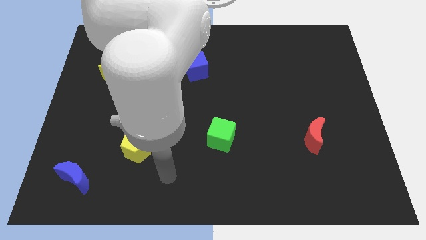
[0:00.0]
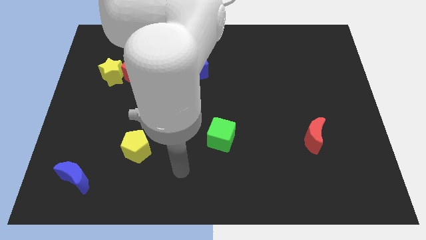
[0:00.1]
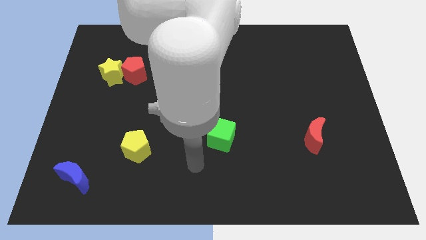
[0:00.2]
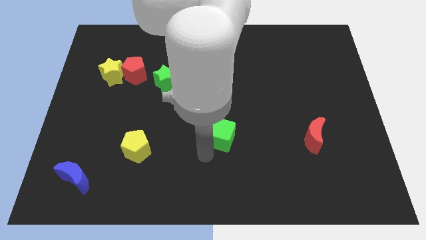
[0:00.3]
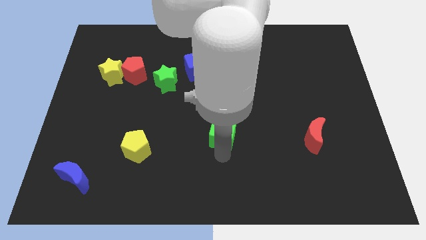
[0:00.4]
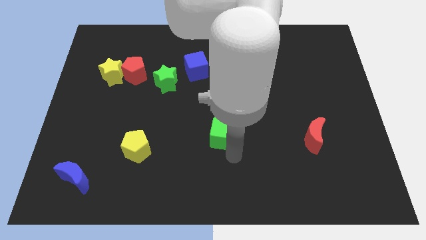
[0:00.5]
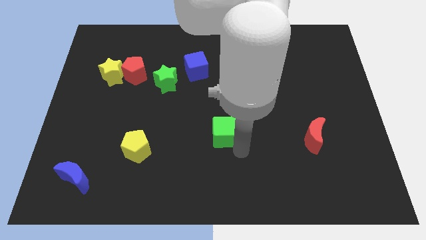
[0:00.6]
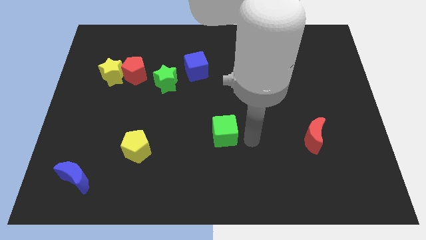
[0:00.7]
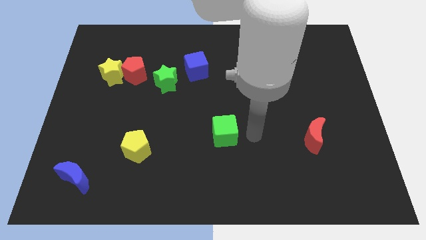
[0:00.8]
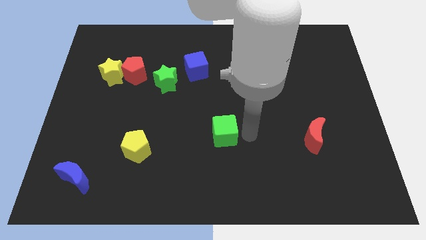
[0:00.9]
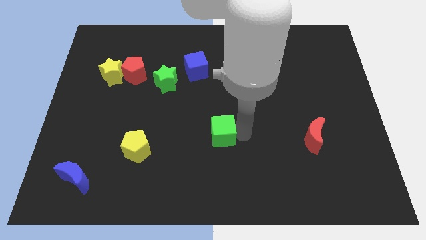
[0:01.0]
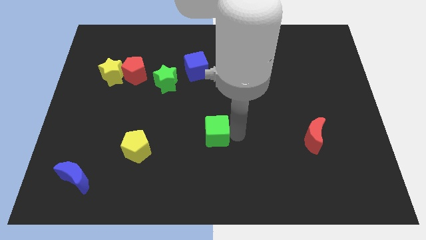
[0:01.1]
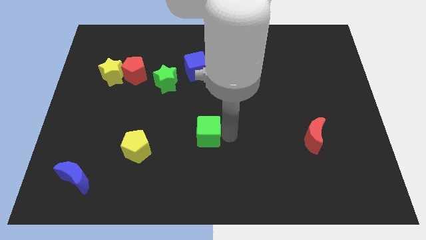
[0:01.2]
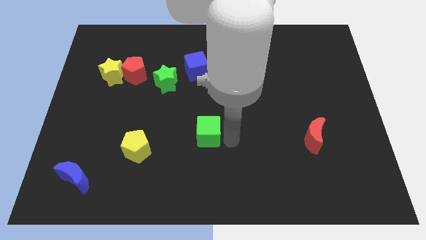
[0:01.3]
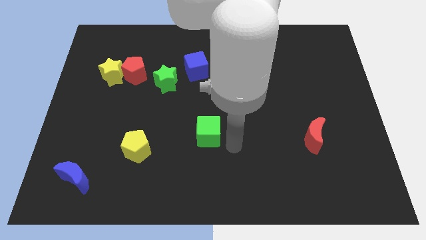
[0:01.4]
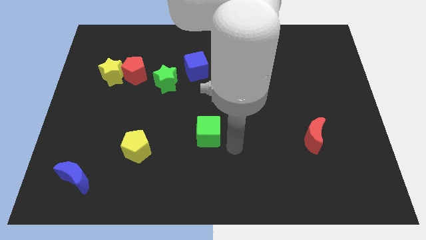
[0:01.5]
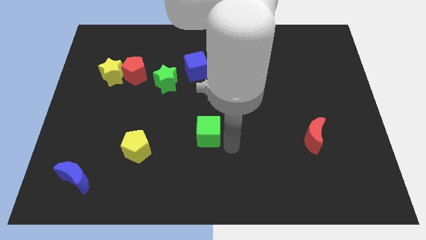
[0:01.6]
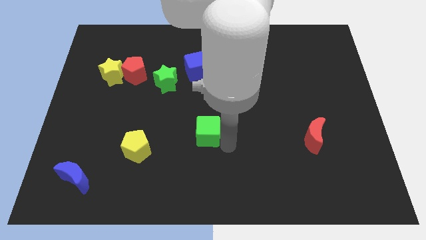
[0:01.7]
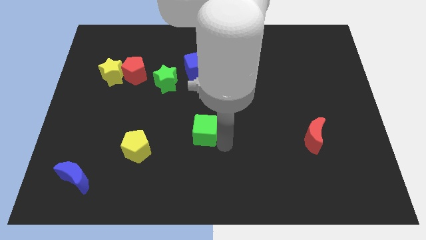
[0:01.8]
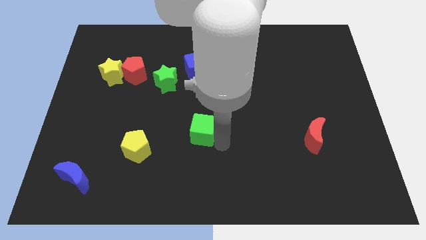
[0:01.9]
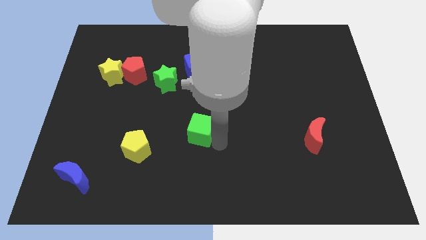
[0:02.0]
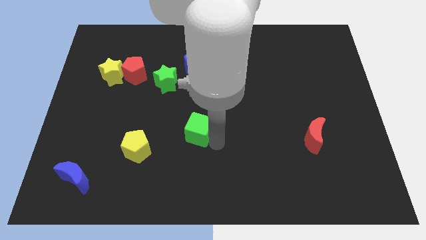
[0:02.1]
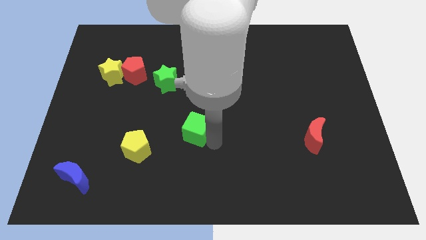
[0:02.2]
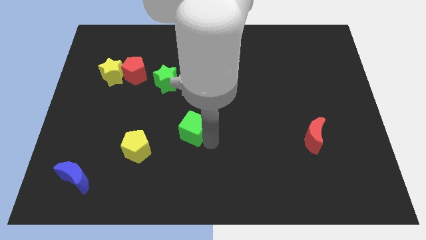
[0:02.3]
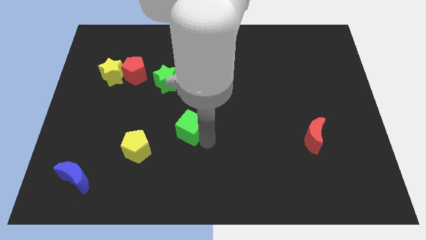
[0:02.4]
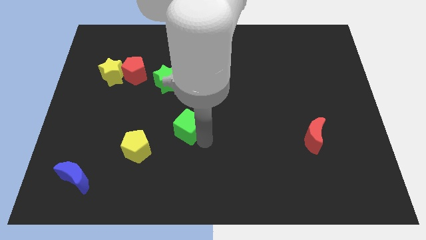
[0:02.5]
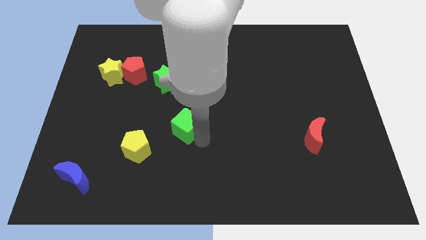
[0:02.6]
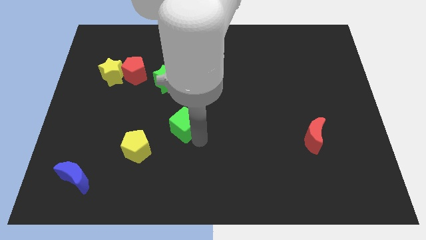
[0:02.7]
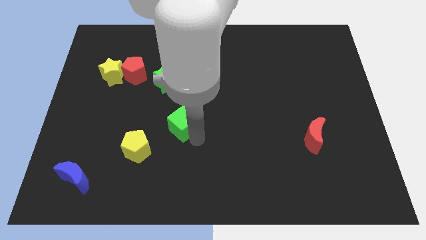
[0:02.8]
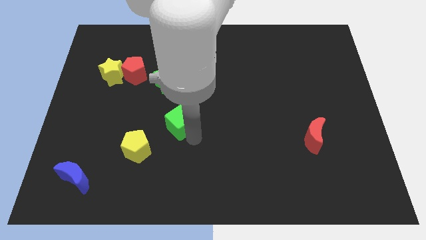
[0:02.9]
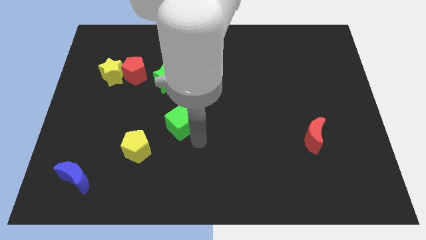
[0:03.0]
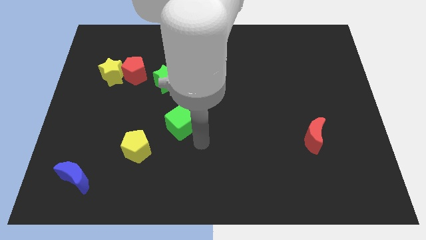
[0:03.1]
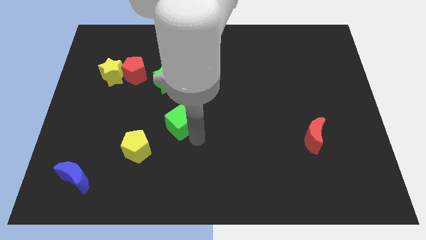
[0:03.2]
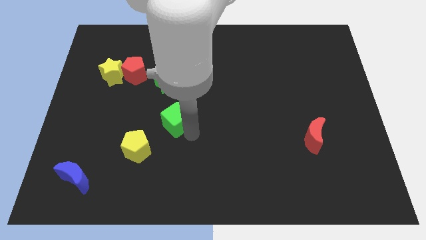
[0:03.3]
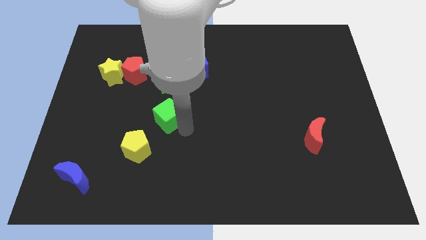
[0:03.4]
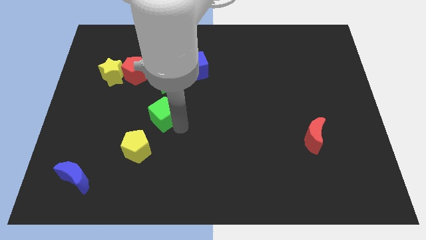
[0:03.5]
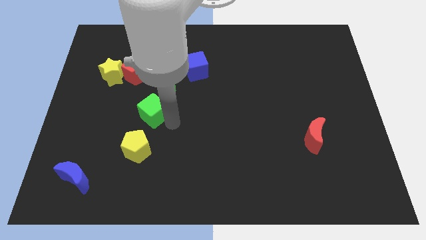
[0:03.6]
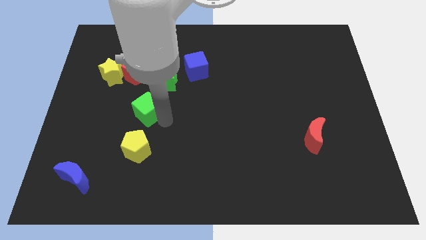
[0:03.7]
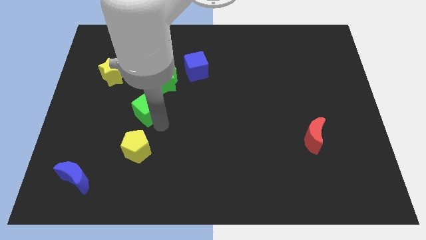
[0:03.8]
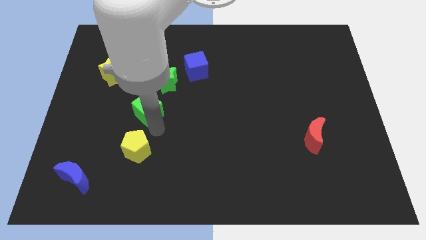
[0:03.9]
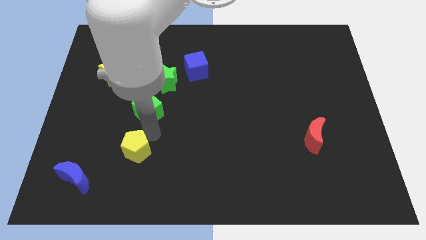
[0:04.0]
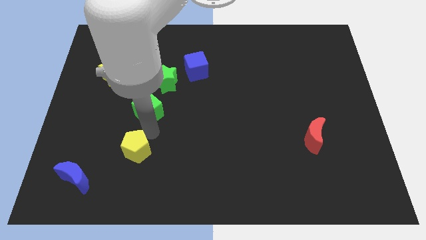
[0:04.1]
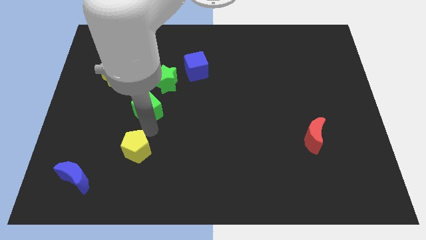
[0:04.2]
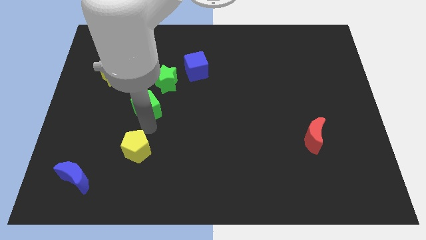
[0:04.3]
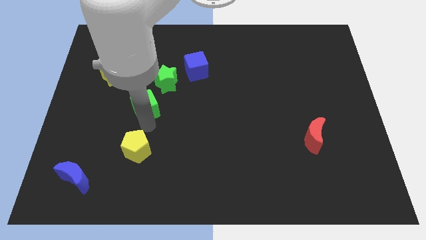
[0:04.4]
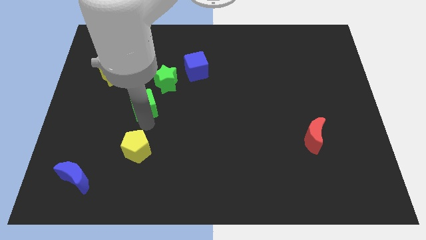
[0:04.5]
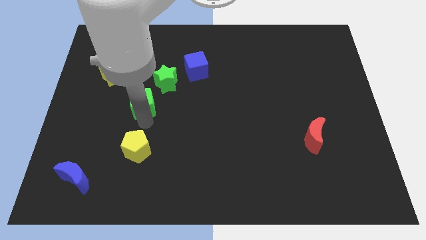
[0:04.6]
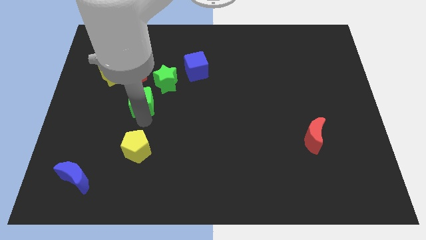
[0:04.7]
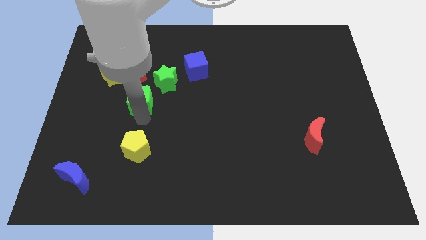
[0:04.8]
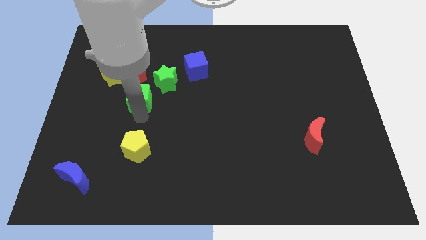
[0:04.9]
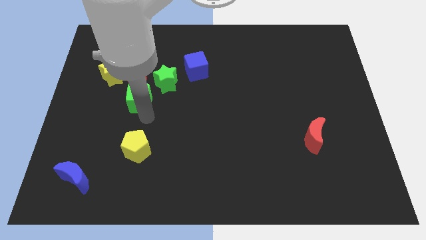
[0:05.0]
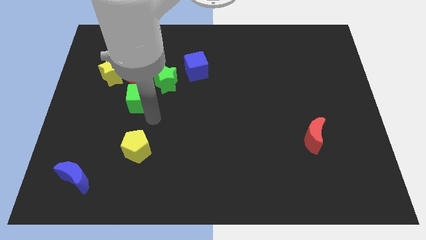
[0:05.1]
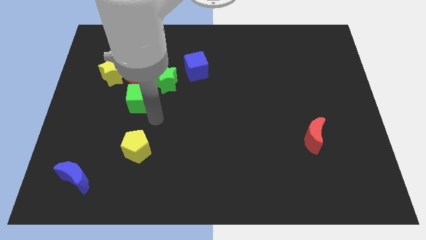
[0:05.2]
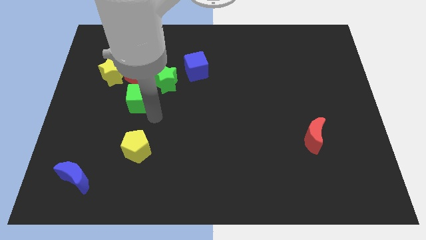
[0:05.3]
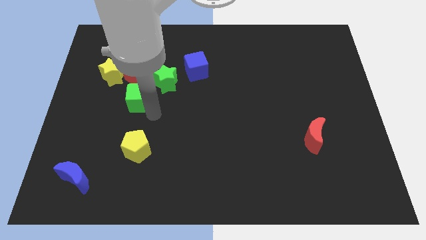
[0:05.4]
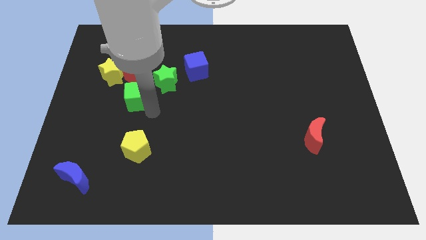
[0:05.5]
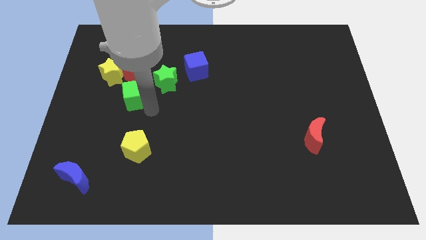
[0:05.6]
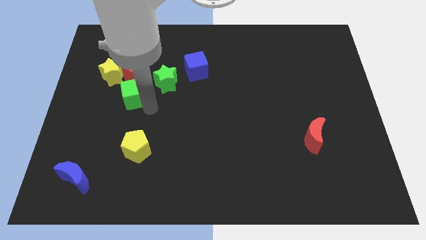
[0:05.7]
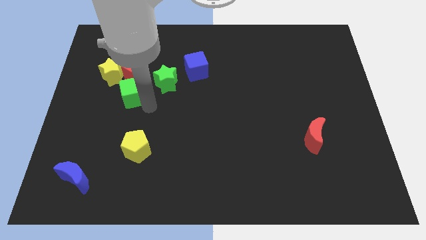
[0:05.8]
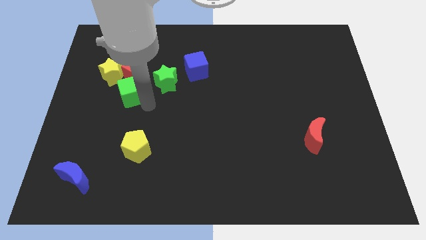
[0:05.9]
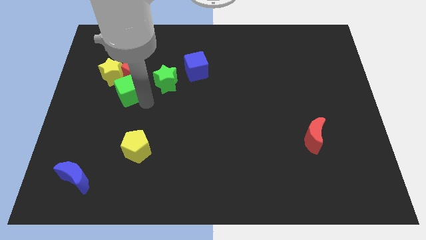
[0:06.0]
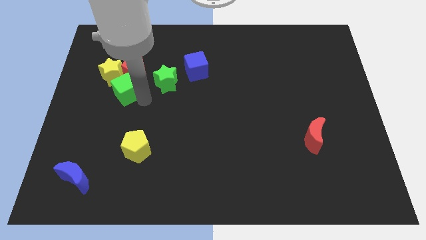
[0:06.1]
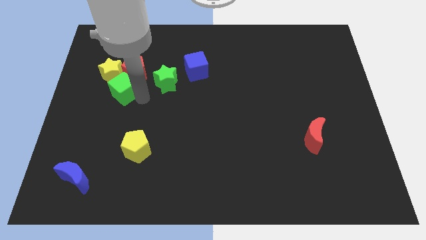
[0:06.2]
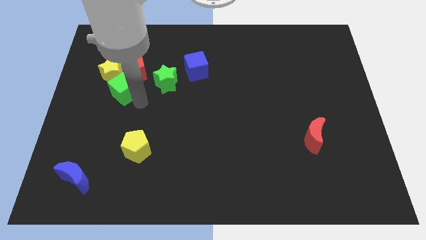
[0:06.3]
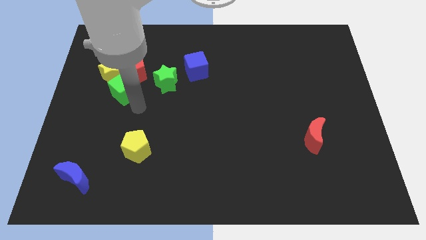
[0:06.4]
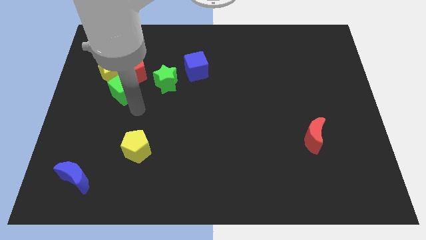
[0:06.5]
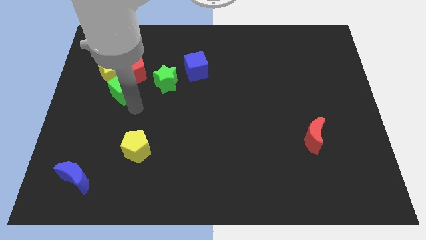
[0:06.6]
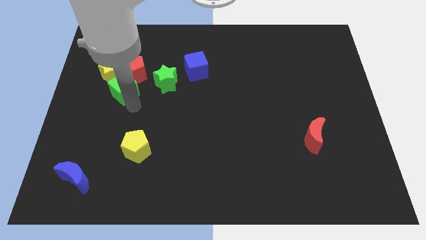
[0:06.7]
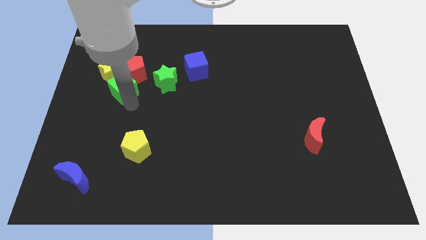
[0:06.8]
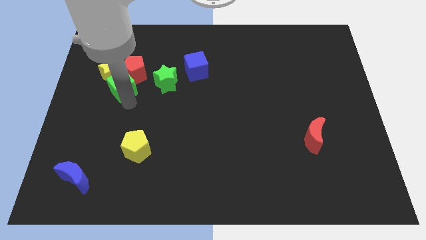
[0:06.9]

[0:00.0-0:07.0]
put the green cube towards the yellow star

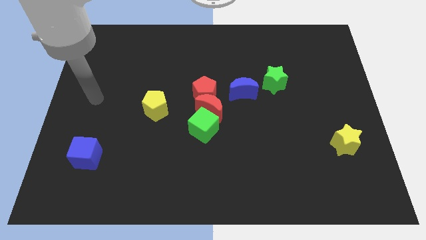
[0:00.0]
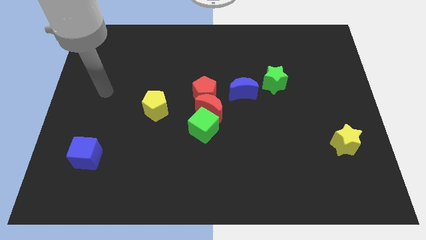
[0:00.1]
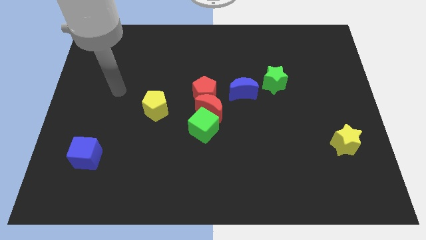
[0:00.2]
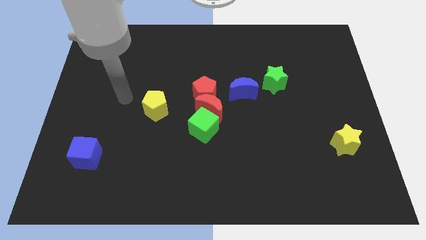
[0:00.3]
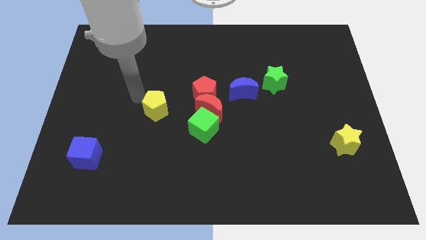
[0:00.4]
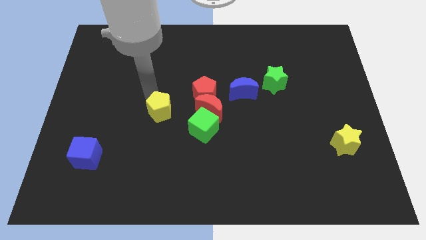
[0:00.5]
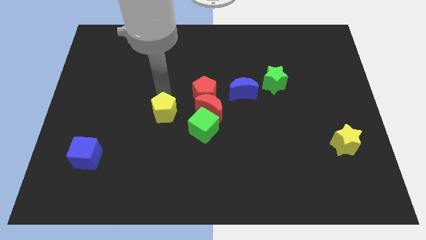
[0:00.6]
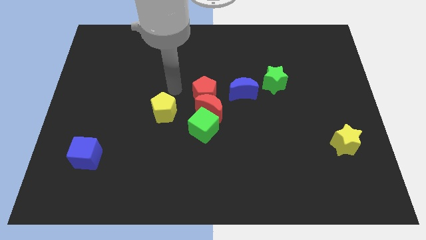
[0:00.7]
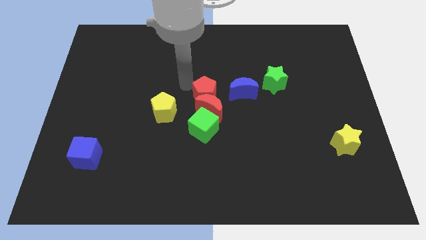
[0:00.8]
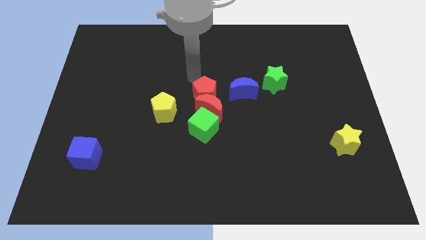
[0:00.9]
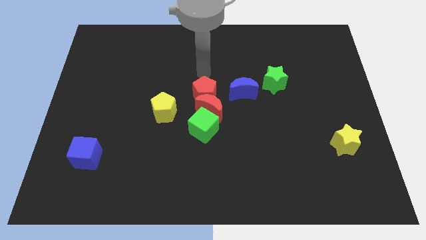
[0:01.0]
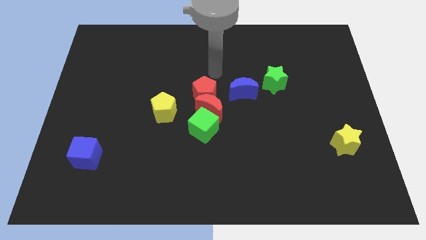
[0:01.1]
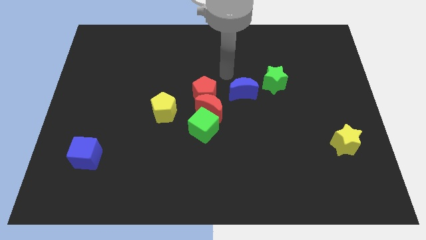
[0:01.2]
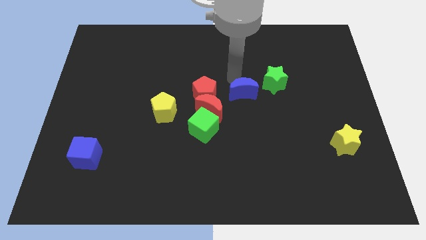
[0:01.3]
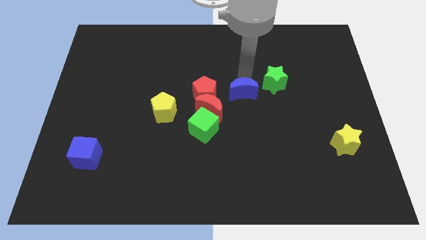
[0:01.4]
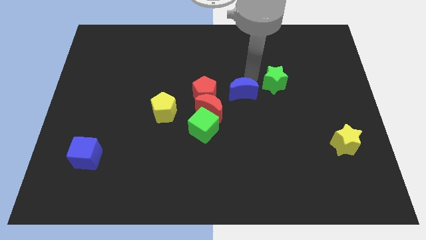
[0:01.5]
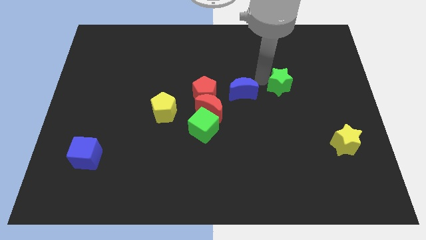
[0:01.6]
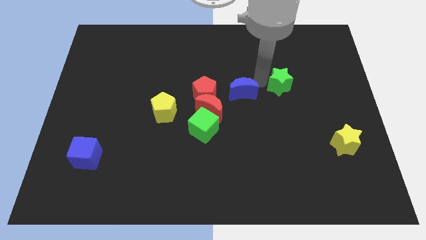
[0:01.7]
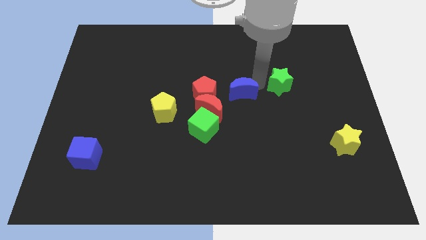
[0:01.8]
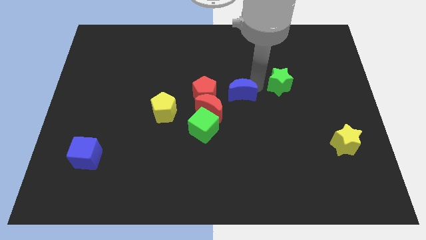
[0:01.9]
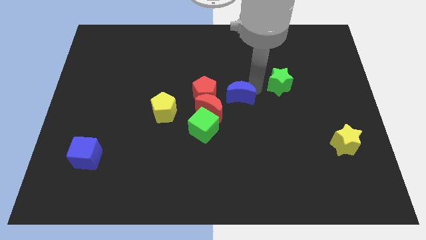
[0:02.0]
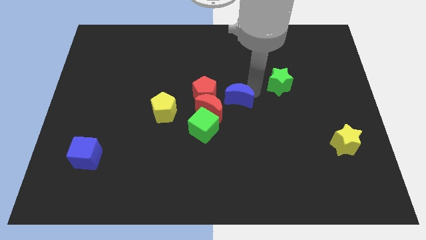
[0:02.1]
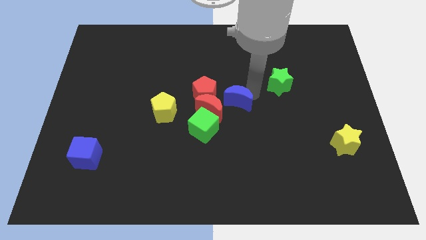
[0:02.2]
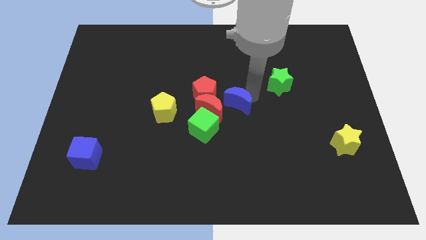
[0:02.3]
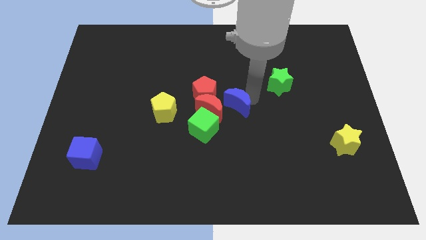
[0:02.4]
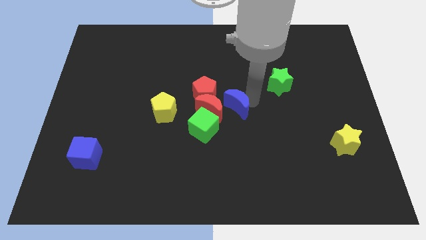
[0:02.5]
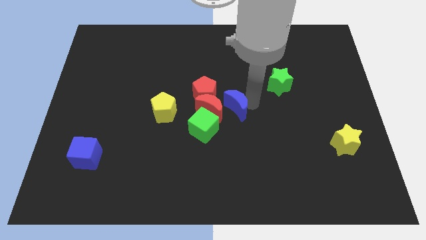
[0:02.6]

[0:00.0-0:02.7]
push the blue moon to the red moon
